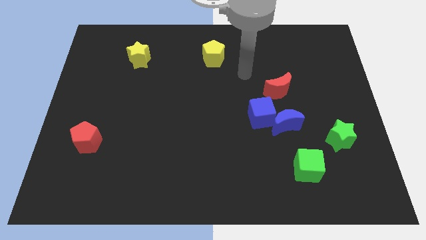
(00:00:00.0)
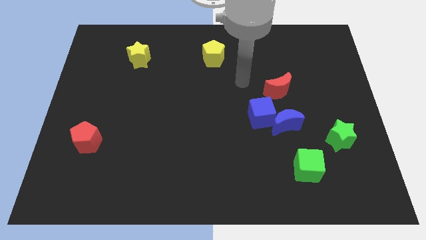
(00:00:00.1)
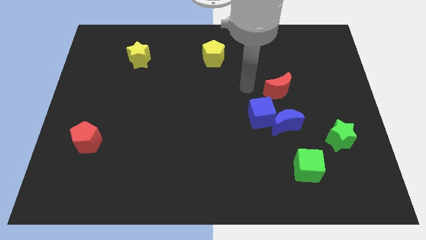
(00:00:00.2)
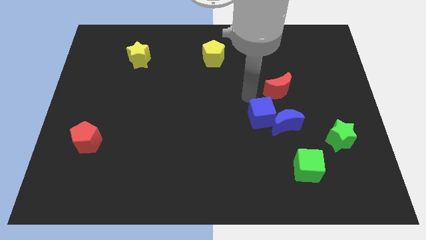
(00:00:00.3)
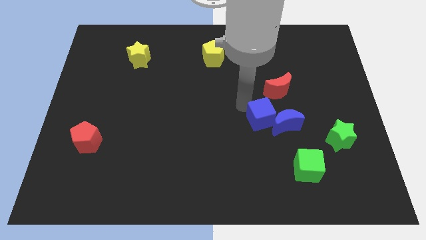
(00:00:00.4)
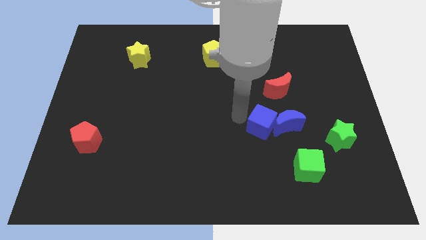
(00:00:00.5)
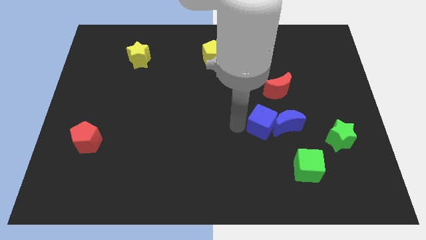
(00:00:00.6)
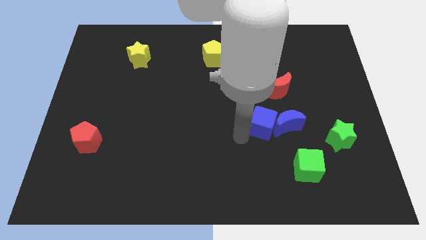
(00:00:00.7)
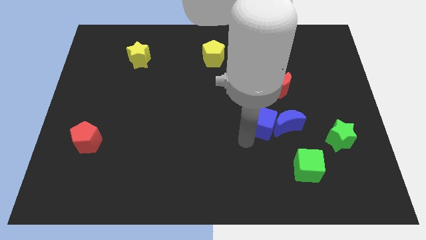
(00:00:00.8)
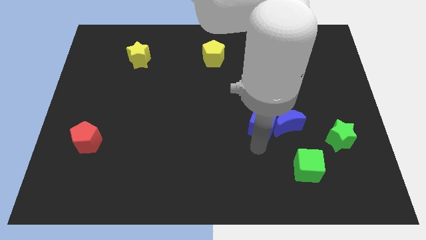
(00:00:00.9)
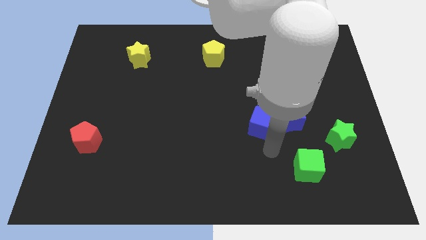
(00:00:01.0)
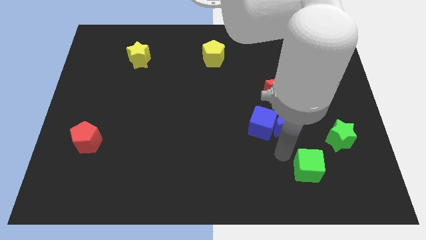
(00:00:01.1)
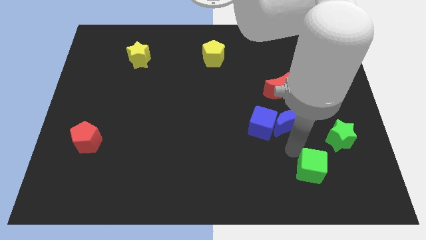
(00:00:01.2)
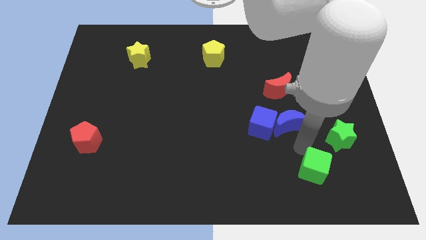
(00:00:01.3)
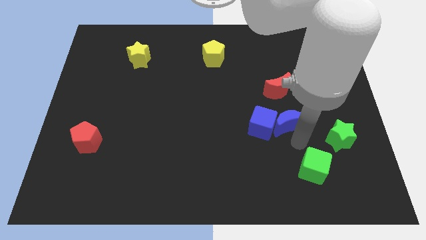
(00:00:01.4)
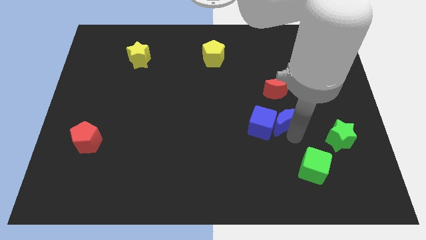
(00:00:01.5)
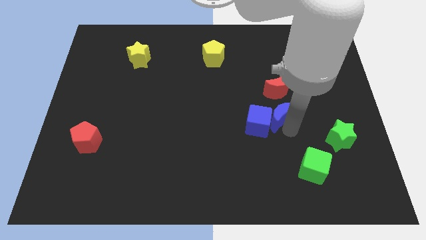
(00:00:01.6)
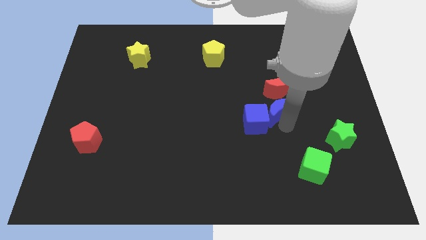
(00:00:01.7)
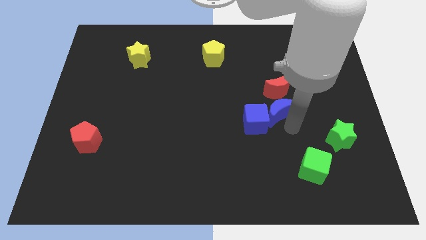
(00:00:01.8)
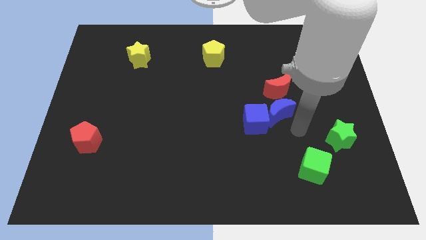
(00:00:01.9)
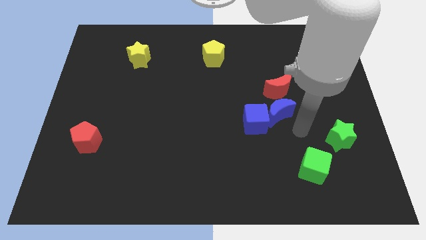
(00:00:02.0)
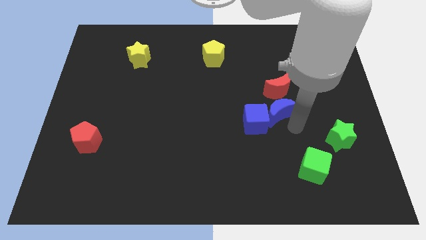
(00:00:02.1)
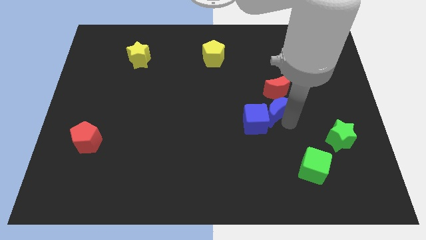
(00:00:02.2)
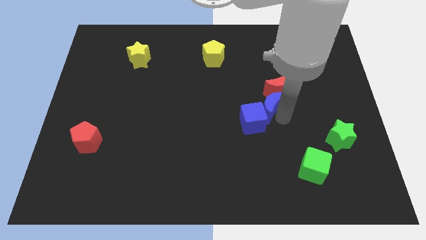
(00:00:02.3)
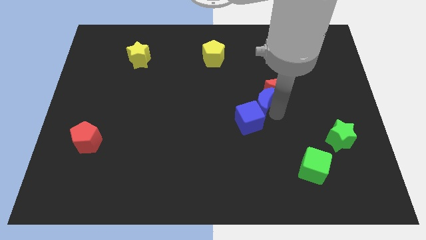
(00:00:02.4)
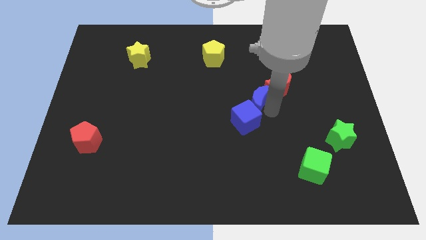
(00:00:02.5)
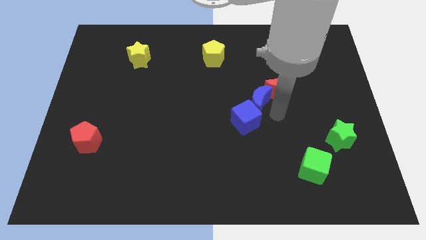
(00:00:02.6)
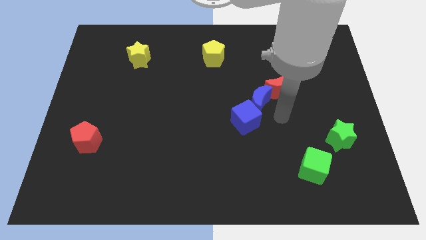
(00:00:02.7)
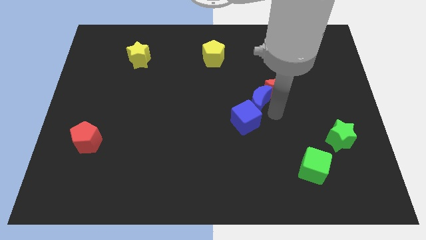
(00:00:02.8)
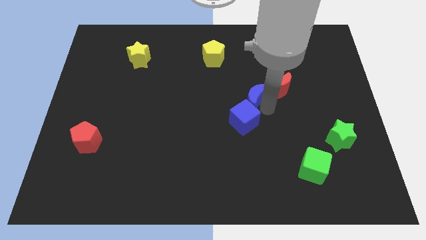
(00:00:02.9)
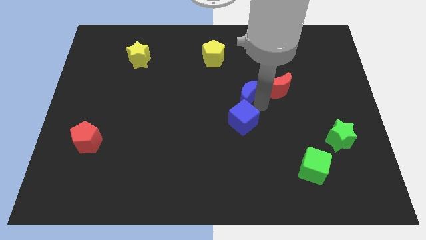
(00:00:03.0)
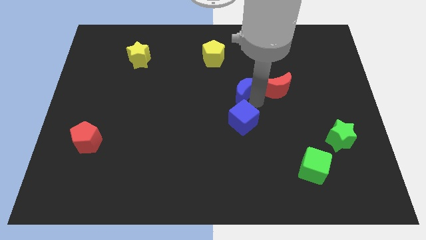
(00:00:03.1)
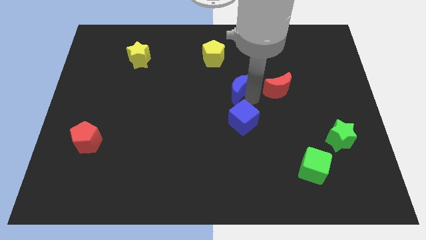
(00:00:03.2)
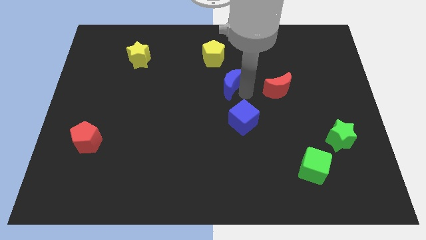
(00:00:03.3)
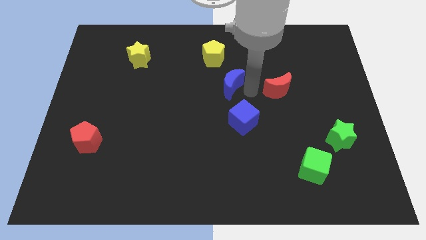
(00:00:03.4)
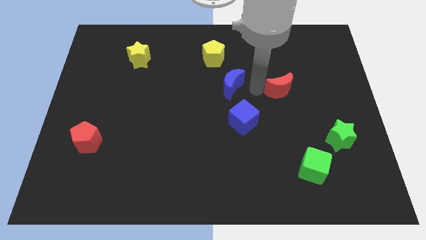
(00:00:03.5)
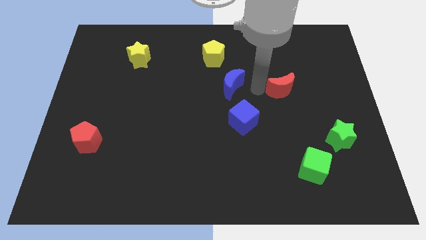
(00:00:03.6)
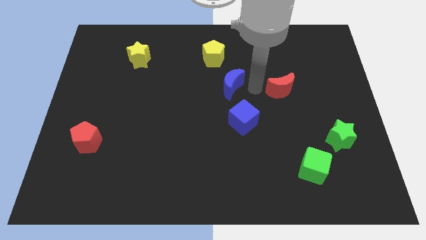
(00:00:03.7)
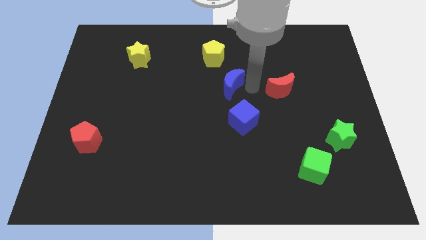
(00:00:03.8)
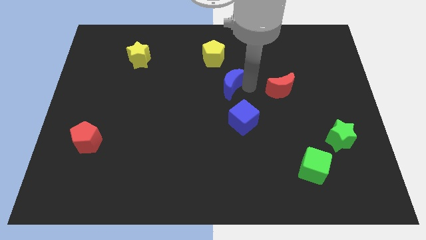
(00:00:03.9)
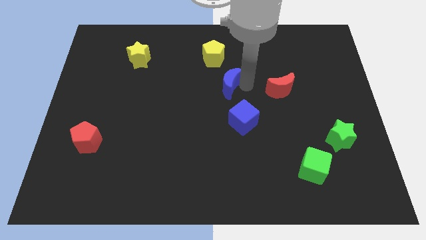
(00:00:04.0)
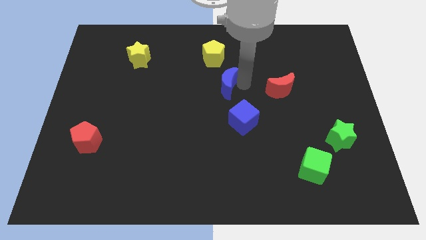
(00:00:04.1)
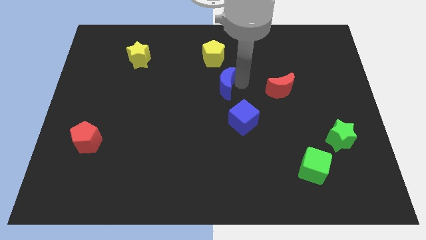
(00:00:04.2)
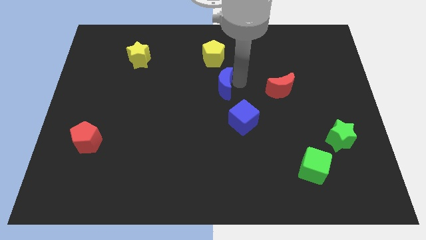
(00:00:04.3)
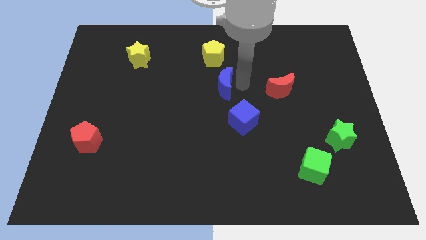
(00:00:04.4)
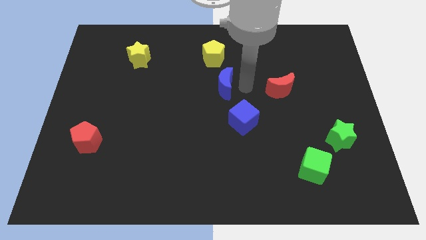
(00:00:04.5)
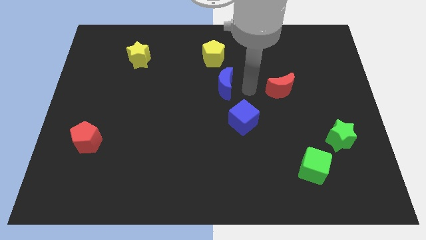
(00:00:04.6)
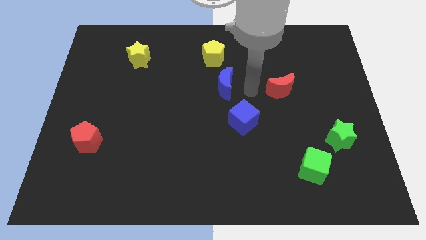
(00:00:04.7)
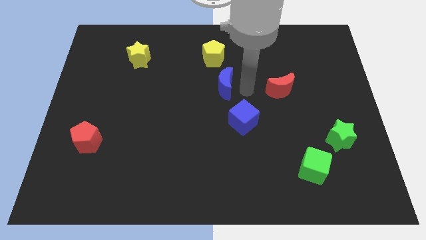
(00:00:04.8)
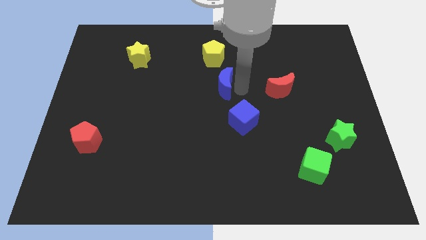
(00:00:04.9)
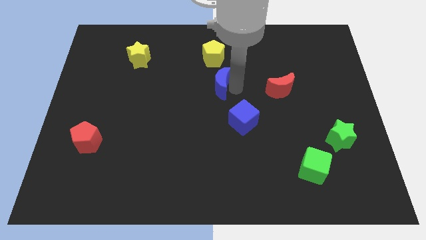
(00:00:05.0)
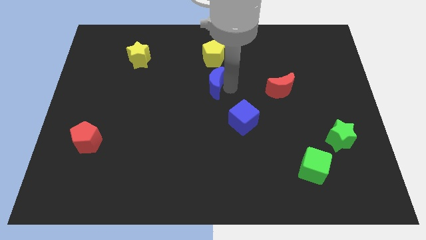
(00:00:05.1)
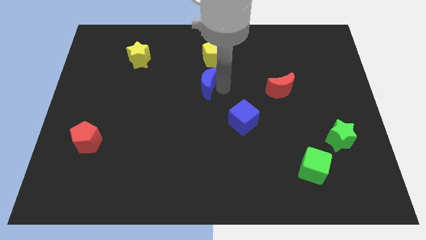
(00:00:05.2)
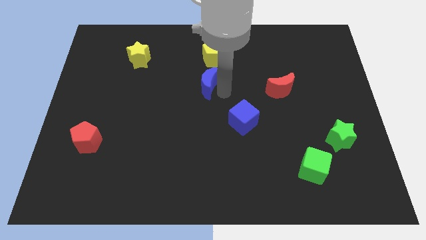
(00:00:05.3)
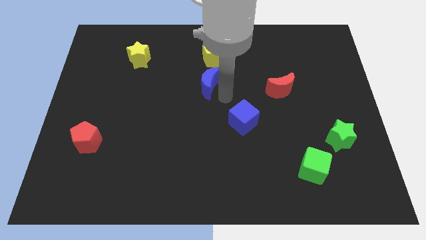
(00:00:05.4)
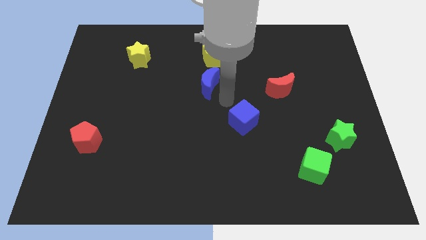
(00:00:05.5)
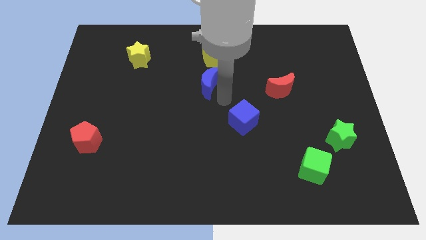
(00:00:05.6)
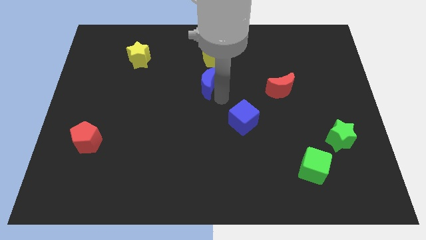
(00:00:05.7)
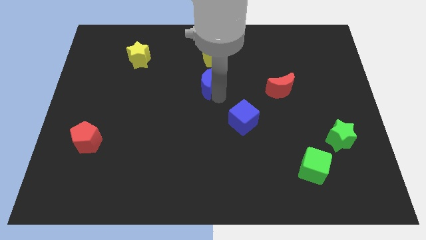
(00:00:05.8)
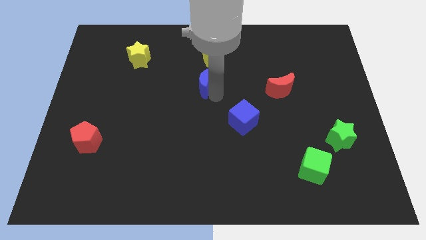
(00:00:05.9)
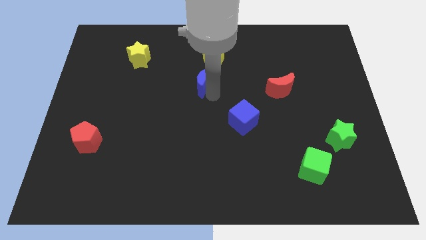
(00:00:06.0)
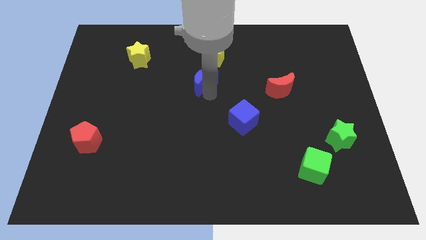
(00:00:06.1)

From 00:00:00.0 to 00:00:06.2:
put the blue moon diagonally down and to the left of the yellow pentagon
